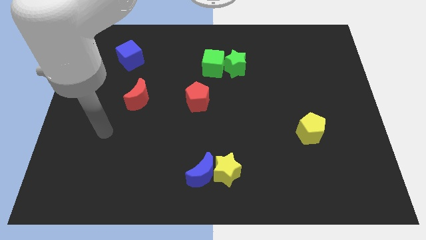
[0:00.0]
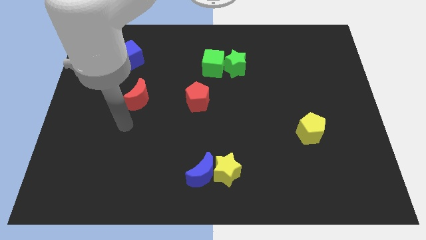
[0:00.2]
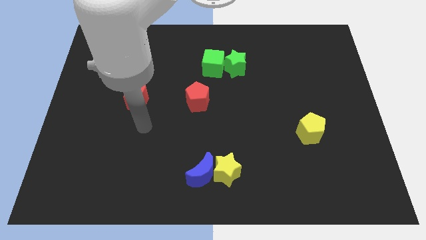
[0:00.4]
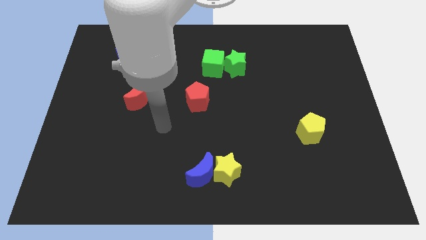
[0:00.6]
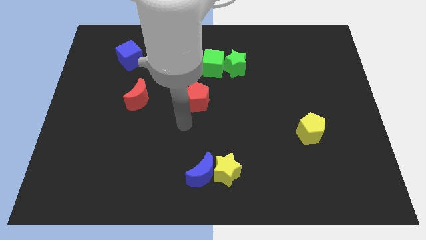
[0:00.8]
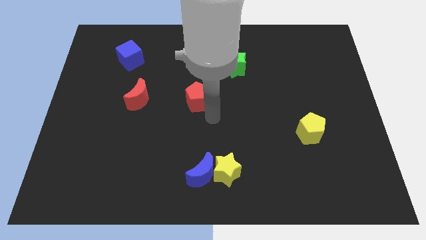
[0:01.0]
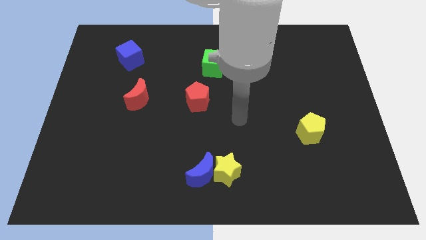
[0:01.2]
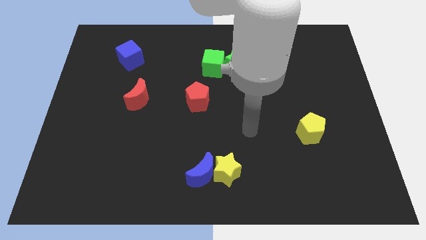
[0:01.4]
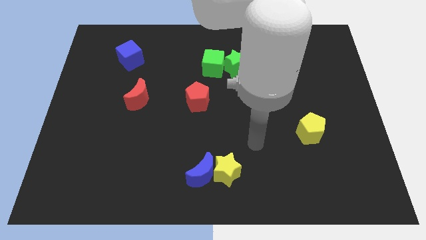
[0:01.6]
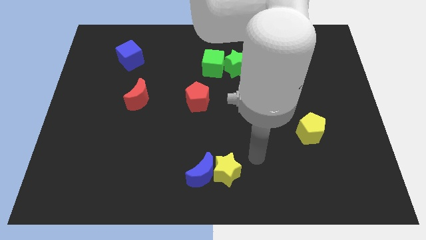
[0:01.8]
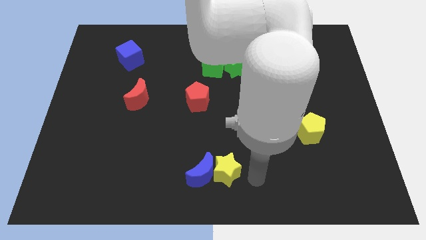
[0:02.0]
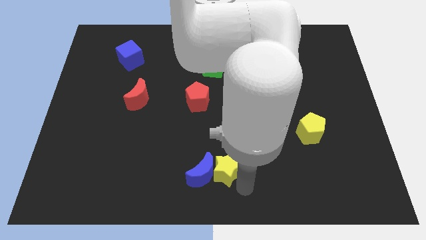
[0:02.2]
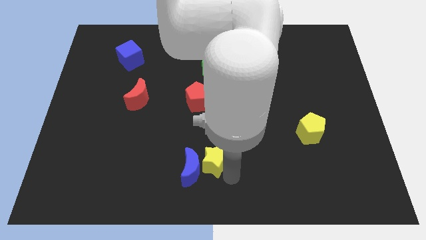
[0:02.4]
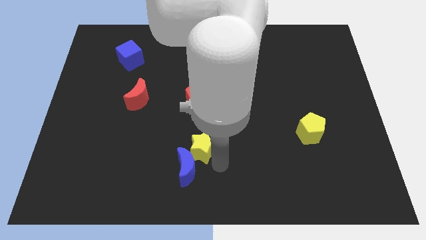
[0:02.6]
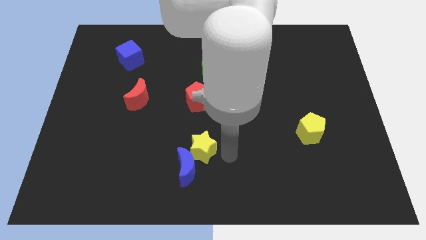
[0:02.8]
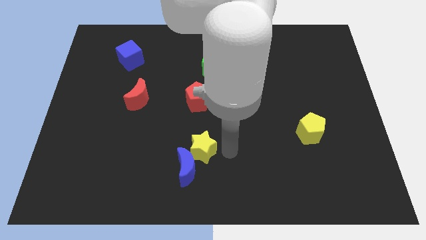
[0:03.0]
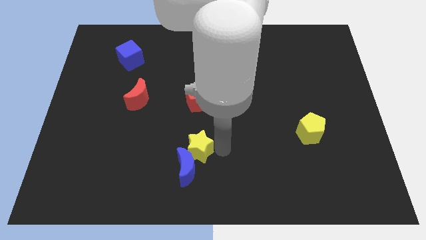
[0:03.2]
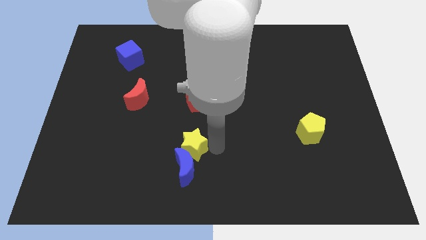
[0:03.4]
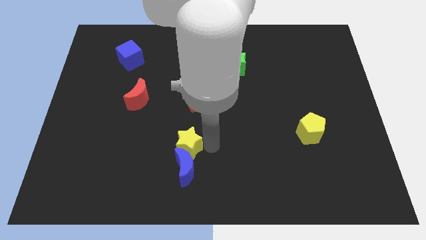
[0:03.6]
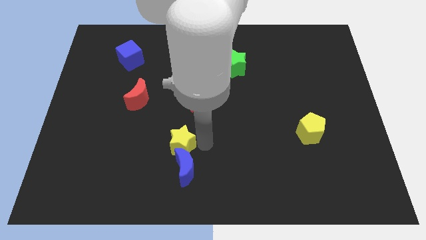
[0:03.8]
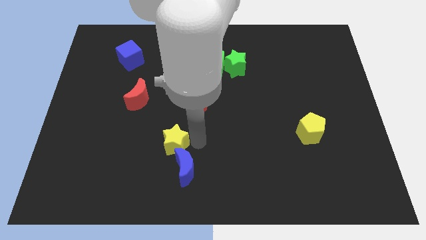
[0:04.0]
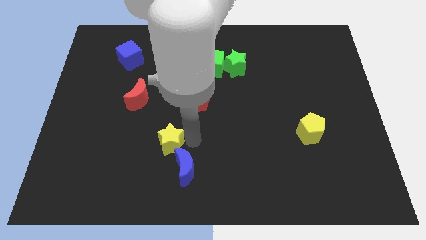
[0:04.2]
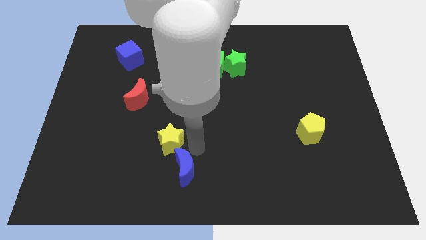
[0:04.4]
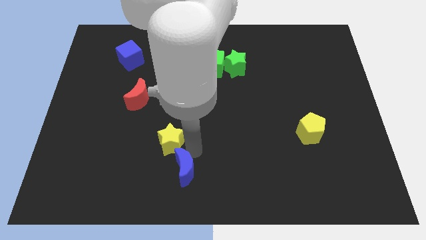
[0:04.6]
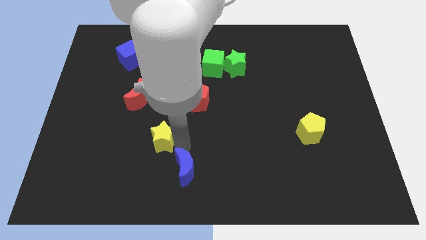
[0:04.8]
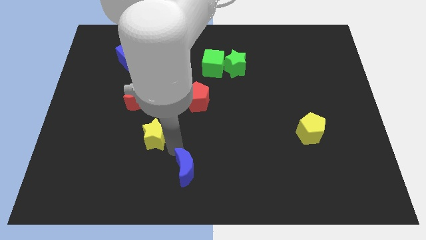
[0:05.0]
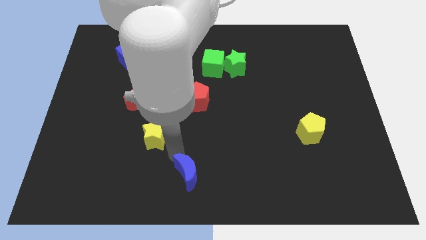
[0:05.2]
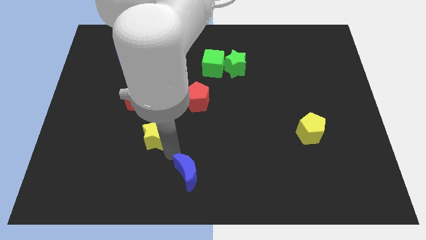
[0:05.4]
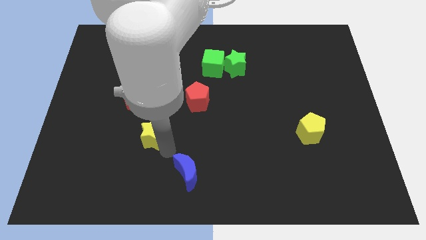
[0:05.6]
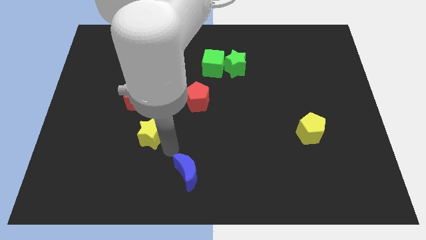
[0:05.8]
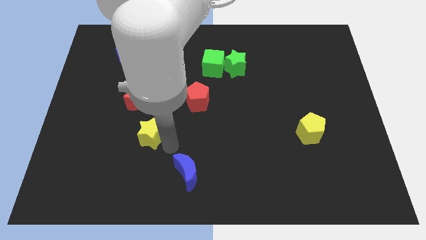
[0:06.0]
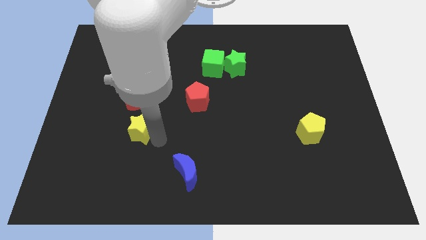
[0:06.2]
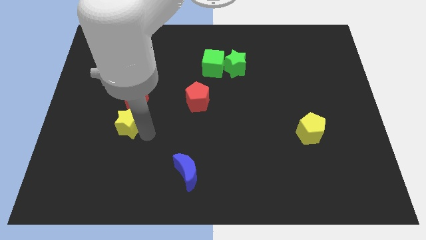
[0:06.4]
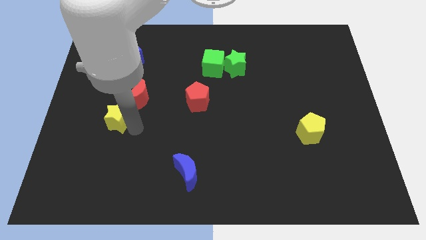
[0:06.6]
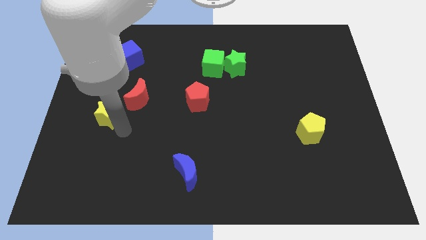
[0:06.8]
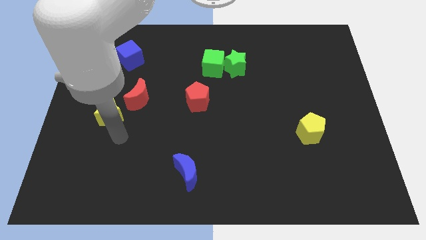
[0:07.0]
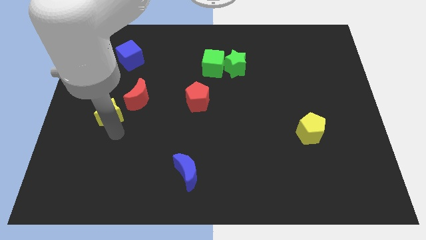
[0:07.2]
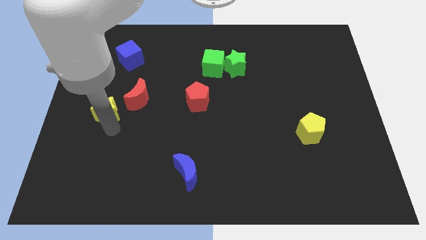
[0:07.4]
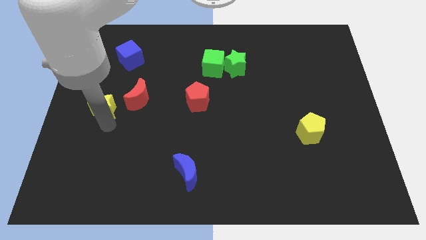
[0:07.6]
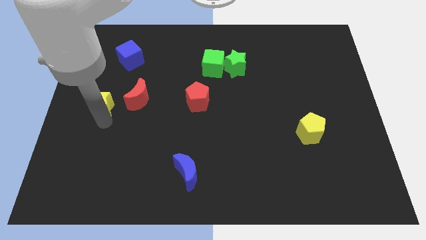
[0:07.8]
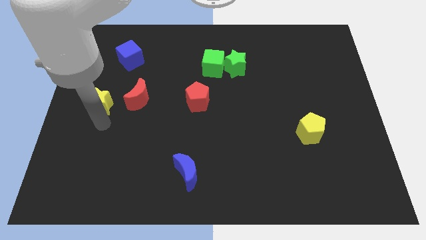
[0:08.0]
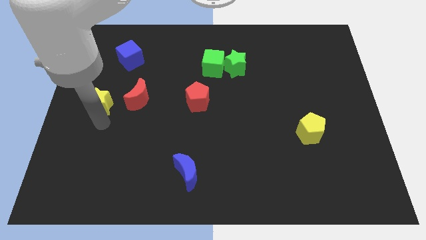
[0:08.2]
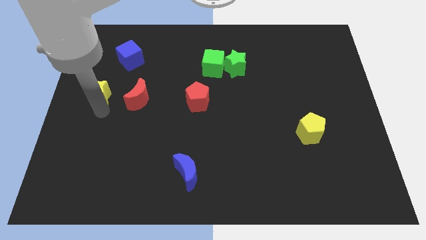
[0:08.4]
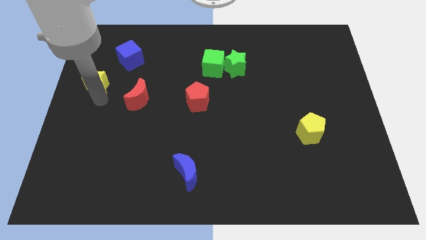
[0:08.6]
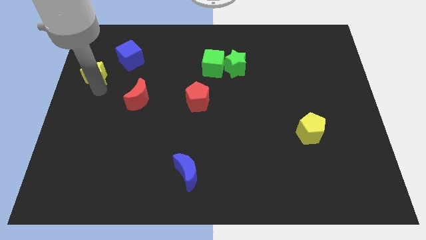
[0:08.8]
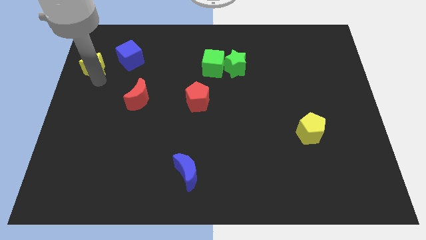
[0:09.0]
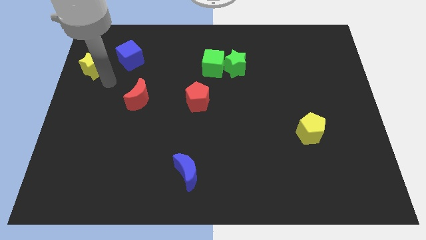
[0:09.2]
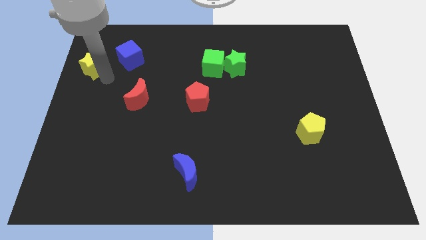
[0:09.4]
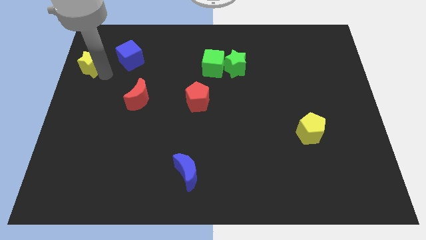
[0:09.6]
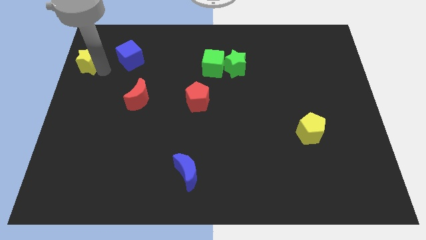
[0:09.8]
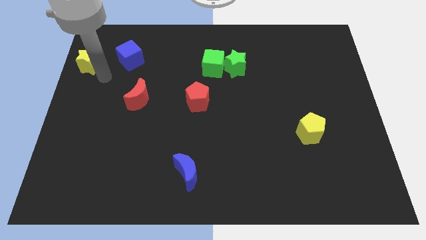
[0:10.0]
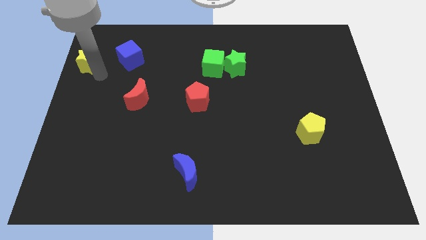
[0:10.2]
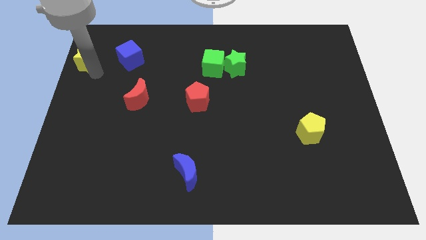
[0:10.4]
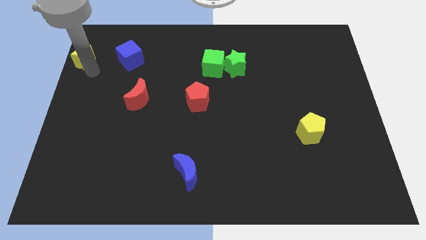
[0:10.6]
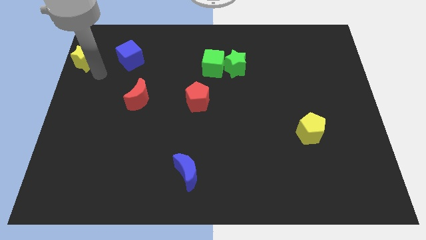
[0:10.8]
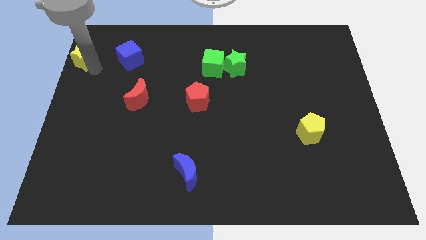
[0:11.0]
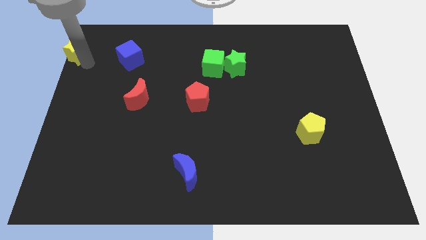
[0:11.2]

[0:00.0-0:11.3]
move the yellow star to the top left corner

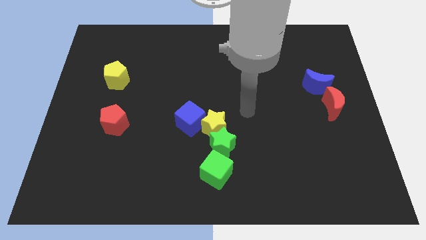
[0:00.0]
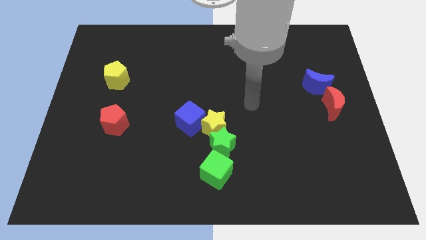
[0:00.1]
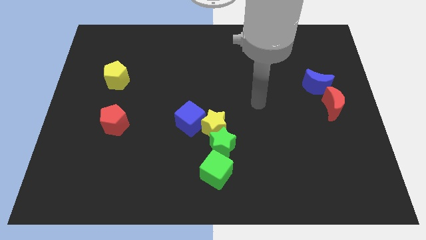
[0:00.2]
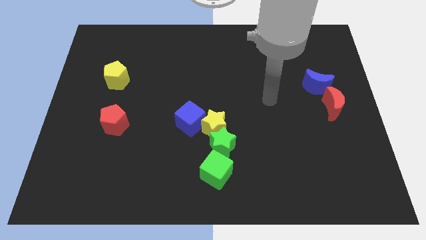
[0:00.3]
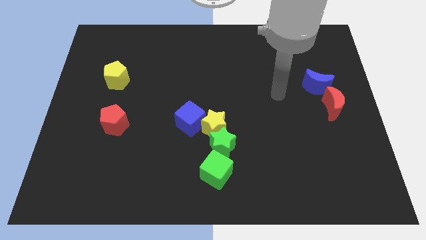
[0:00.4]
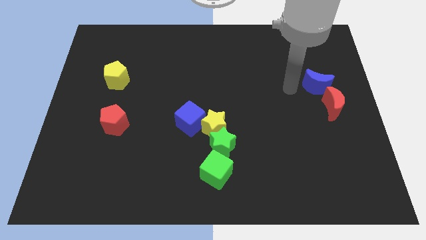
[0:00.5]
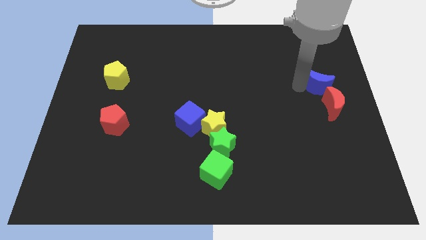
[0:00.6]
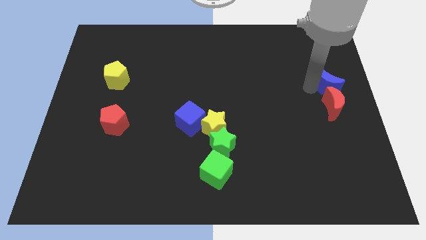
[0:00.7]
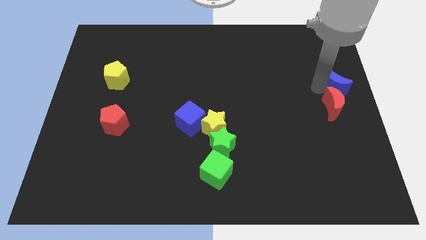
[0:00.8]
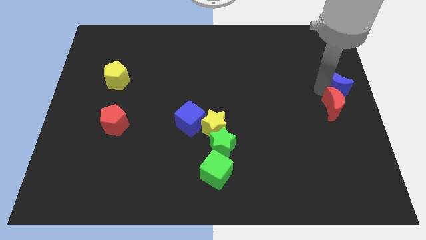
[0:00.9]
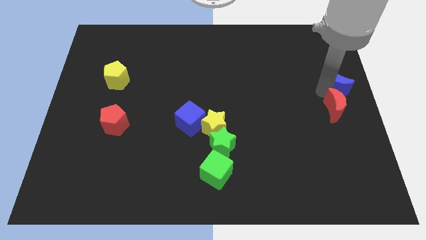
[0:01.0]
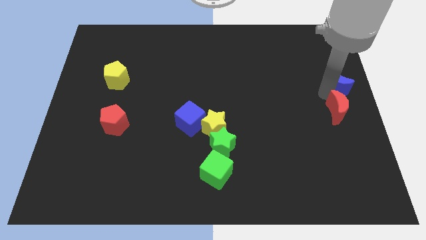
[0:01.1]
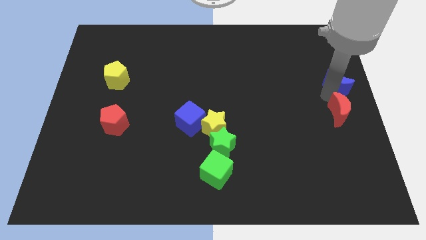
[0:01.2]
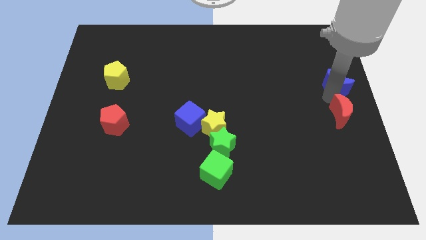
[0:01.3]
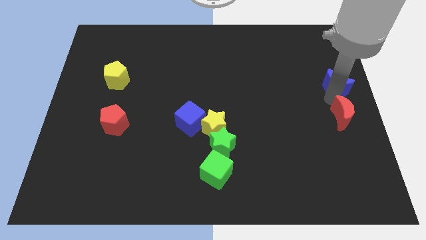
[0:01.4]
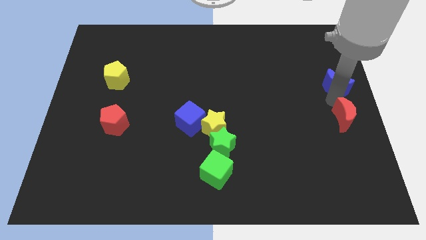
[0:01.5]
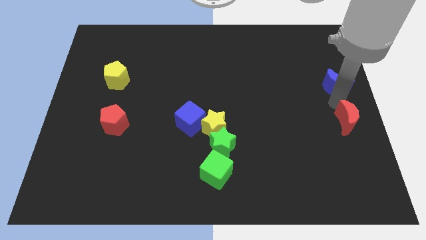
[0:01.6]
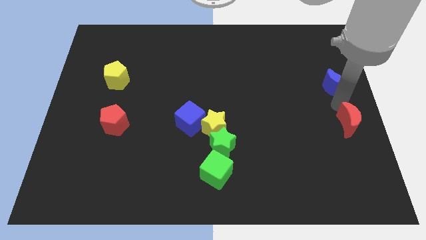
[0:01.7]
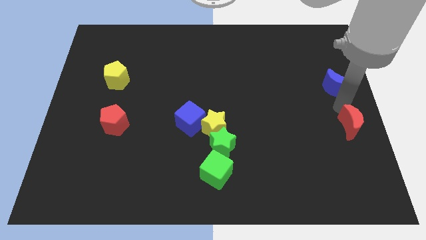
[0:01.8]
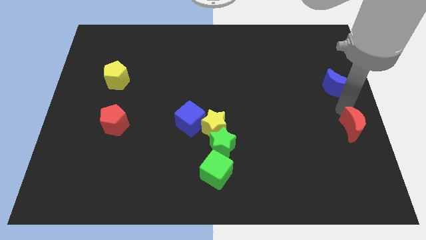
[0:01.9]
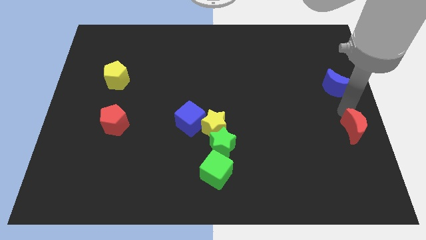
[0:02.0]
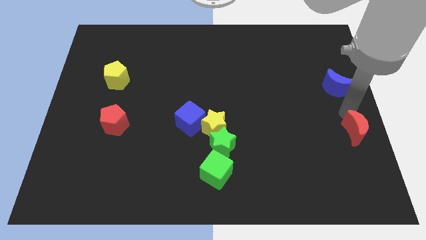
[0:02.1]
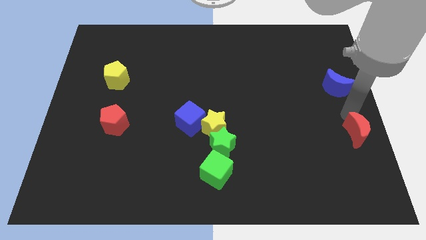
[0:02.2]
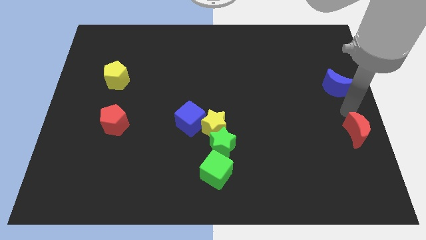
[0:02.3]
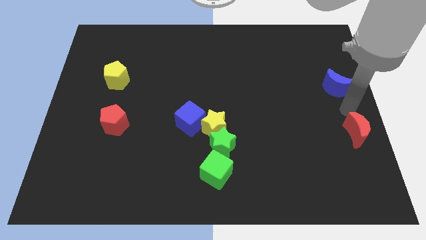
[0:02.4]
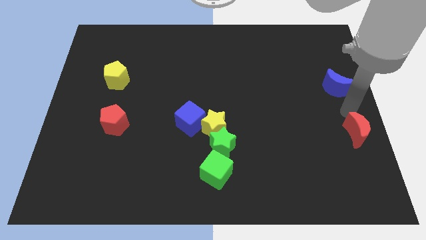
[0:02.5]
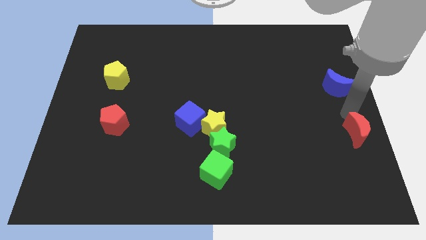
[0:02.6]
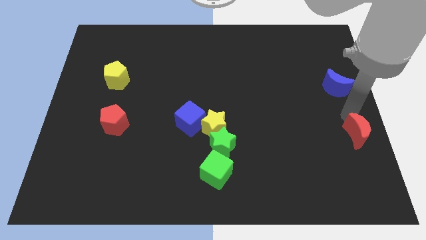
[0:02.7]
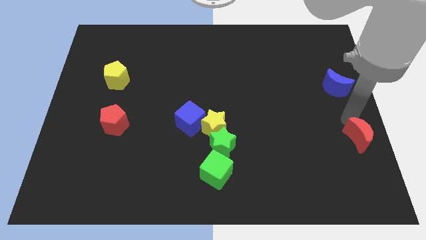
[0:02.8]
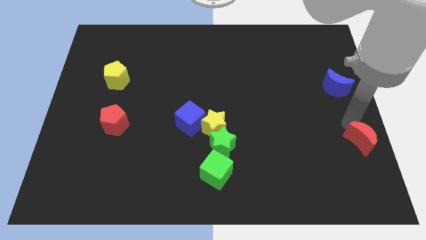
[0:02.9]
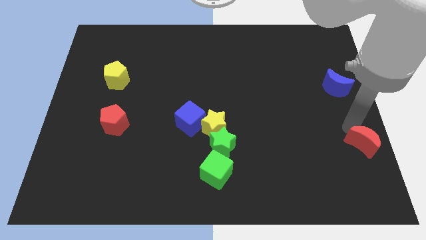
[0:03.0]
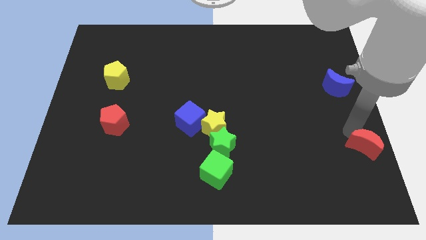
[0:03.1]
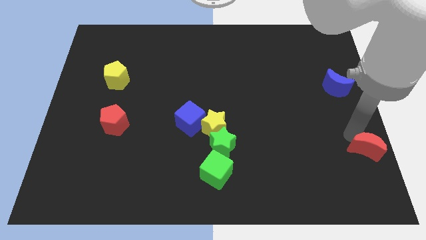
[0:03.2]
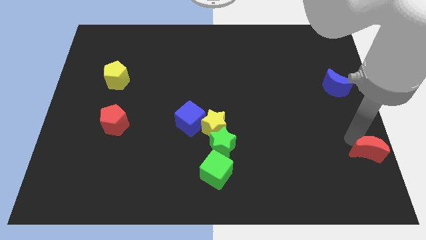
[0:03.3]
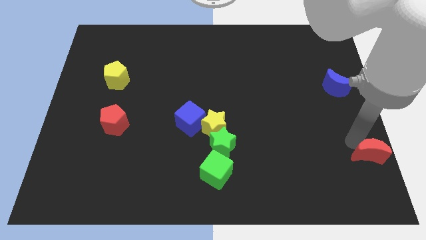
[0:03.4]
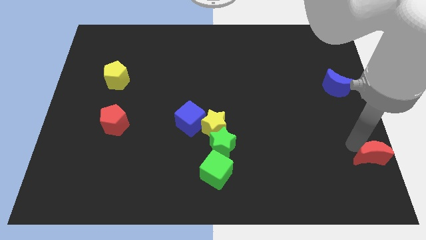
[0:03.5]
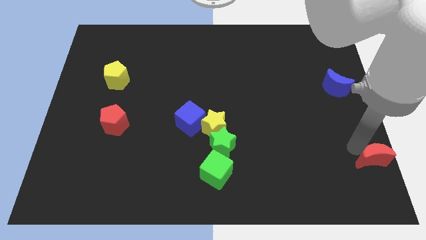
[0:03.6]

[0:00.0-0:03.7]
slide the red moon to the bottom right of the board
